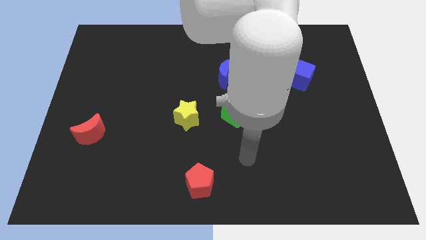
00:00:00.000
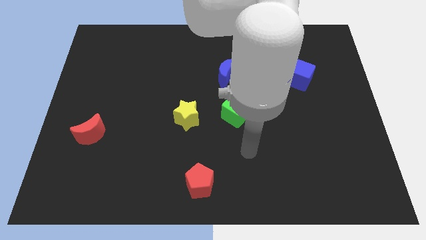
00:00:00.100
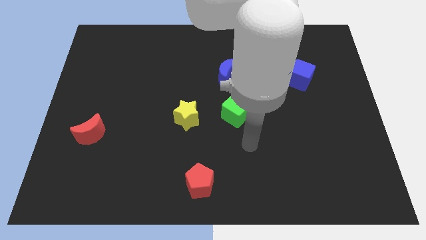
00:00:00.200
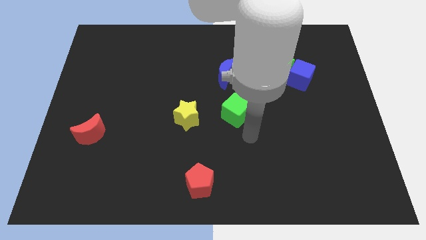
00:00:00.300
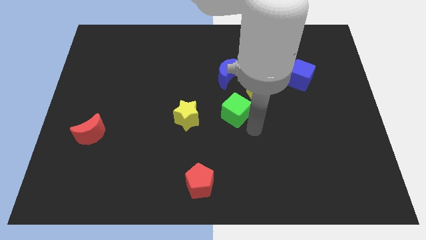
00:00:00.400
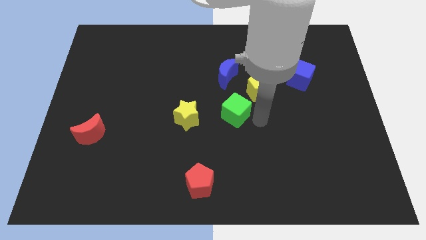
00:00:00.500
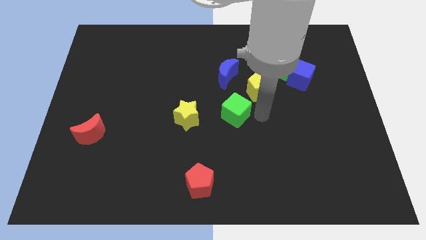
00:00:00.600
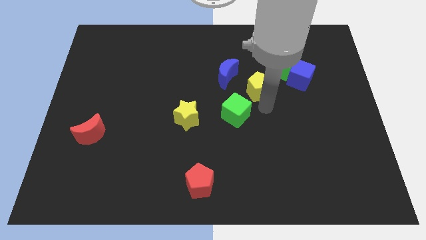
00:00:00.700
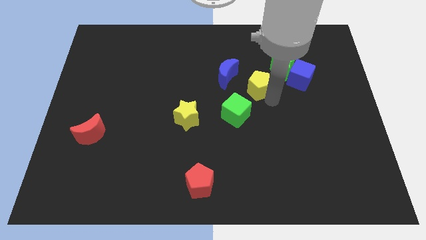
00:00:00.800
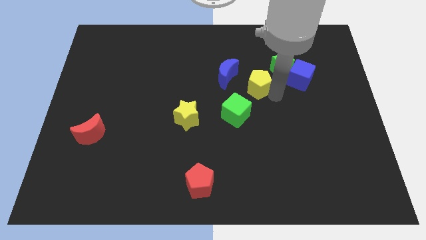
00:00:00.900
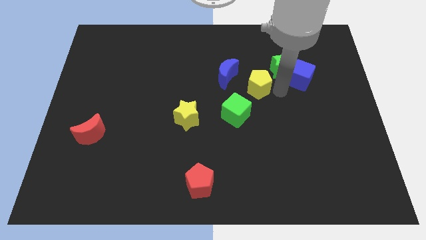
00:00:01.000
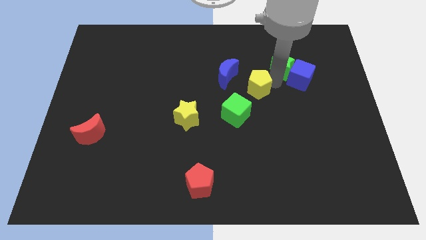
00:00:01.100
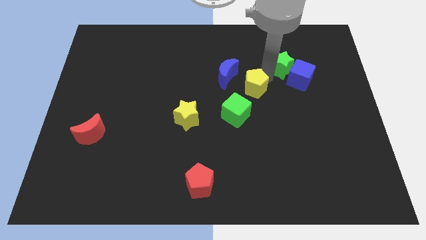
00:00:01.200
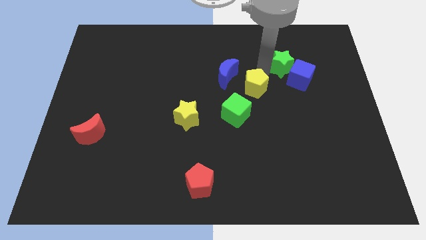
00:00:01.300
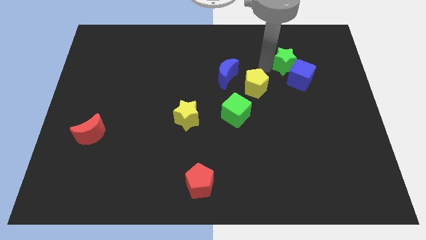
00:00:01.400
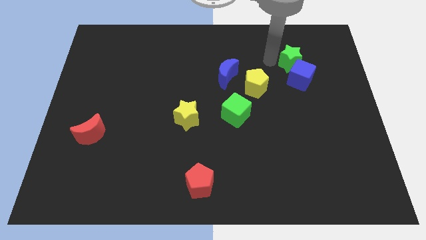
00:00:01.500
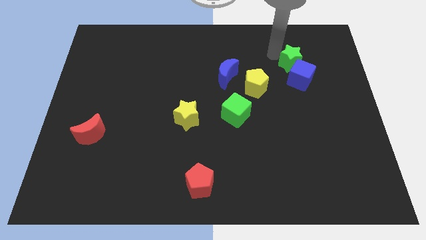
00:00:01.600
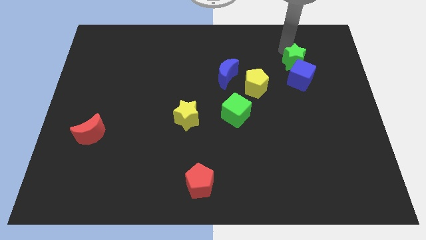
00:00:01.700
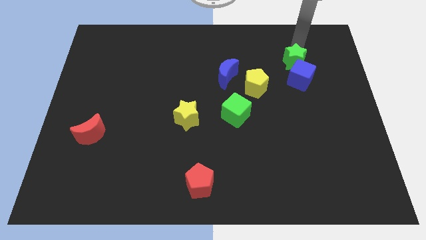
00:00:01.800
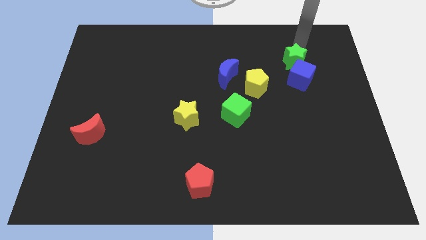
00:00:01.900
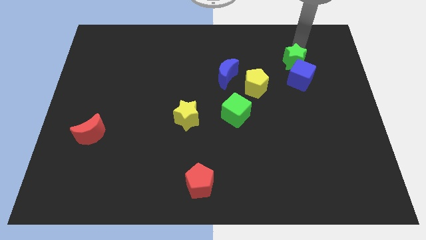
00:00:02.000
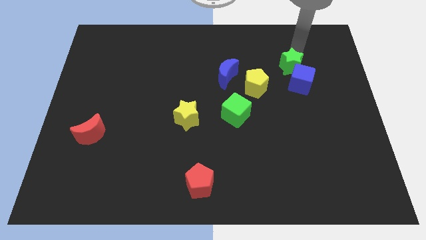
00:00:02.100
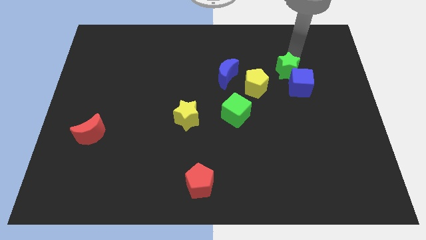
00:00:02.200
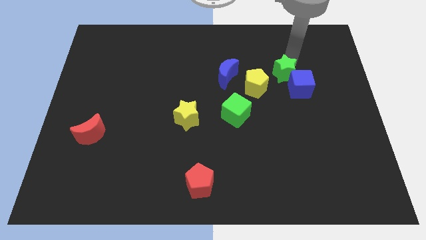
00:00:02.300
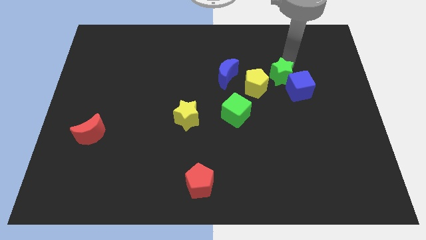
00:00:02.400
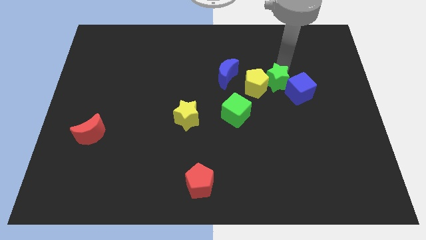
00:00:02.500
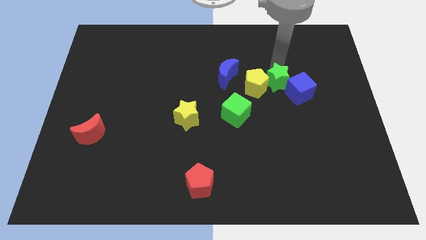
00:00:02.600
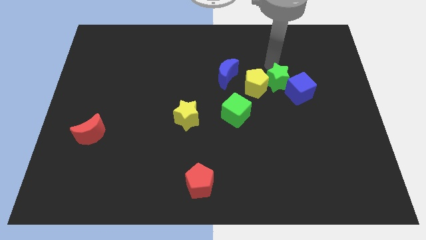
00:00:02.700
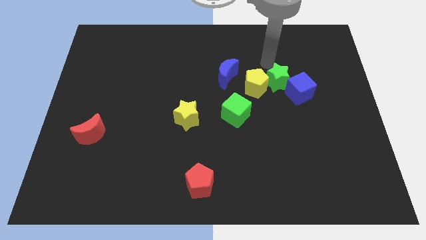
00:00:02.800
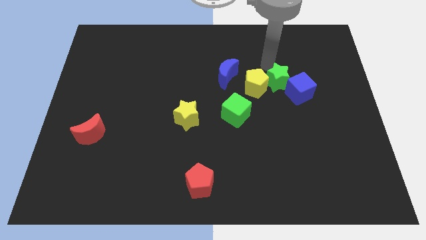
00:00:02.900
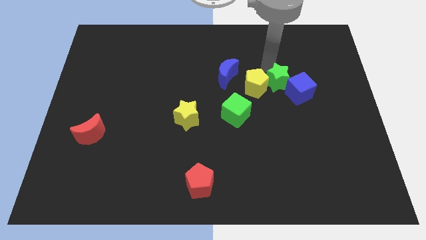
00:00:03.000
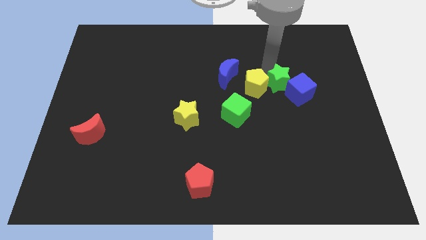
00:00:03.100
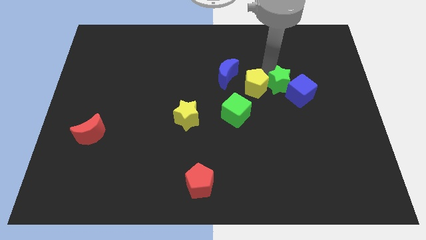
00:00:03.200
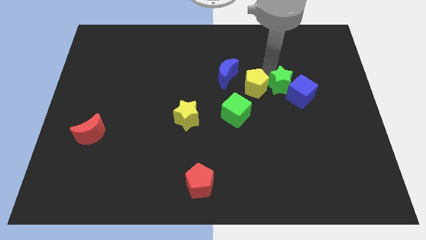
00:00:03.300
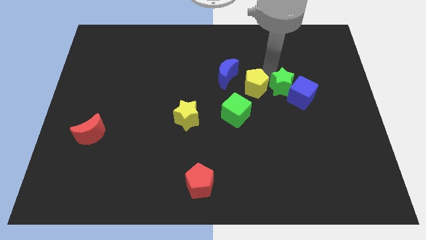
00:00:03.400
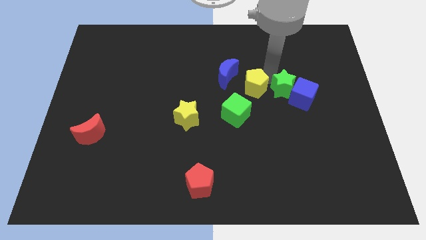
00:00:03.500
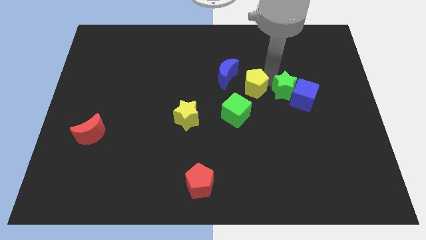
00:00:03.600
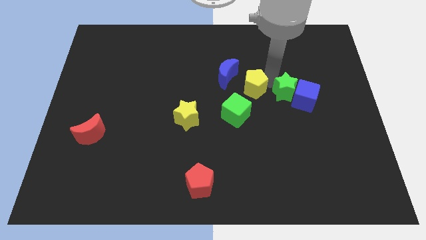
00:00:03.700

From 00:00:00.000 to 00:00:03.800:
slide the green star somewhat down

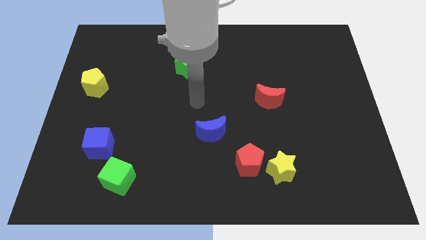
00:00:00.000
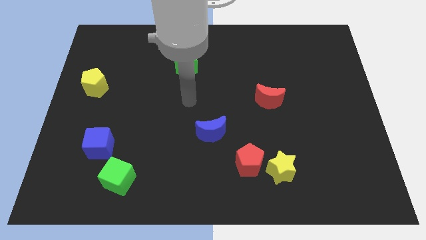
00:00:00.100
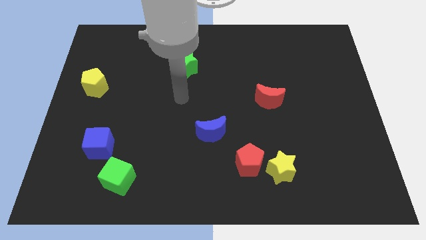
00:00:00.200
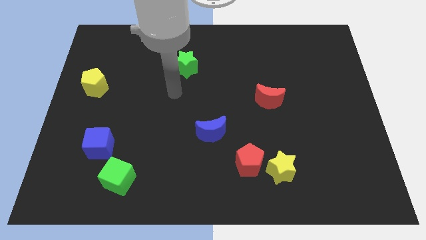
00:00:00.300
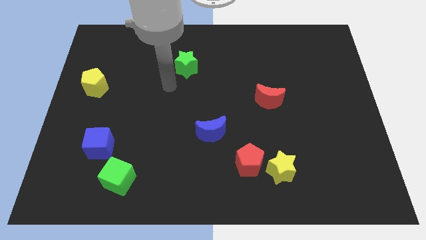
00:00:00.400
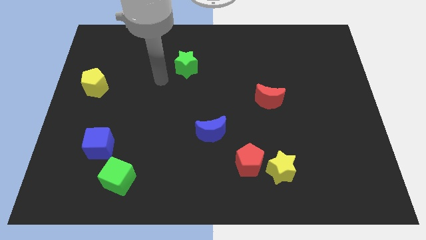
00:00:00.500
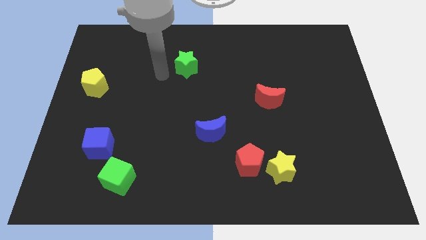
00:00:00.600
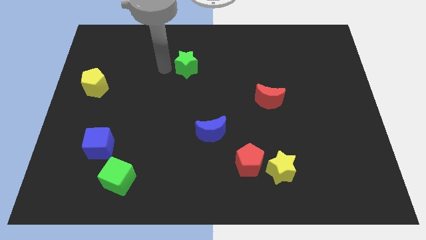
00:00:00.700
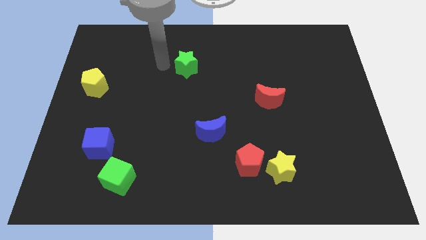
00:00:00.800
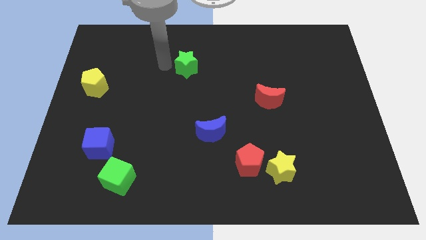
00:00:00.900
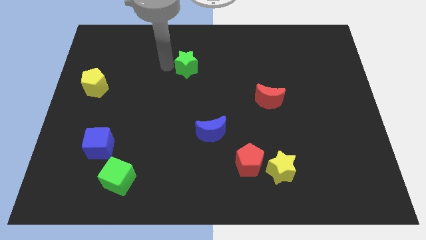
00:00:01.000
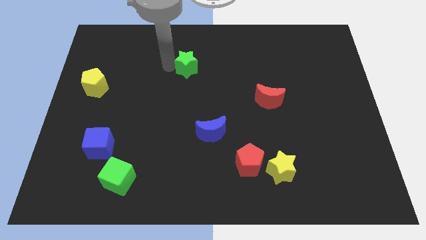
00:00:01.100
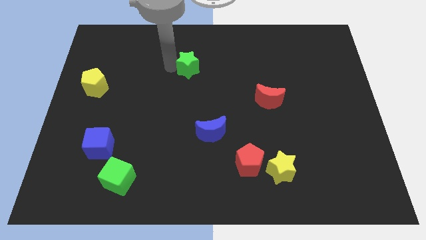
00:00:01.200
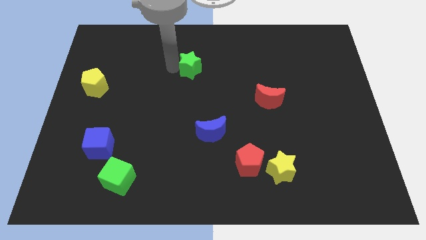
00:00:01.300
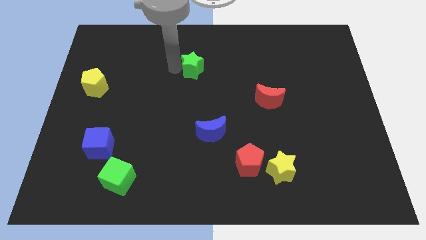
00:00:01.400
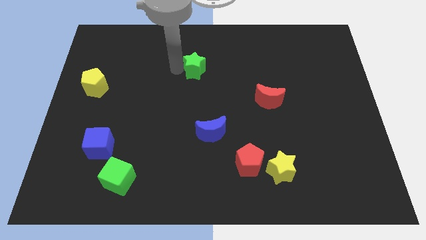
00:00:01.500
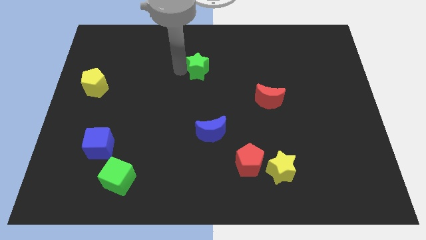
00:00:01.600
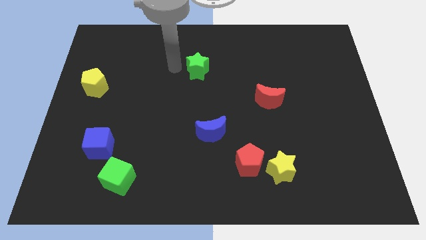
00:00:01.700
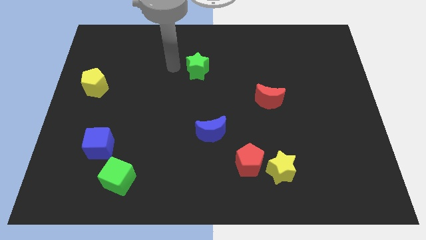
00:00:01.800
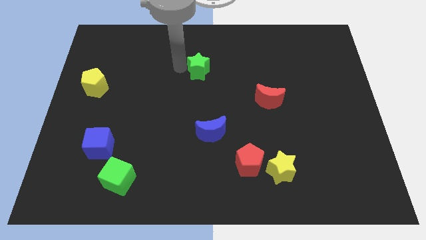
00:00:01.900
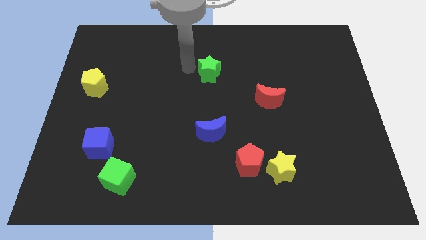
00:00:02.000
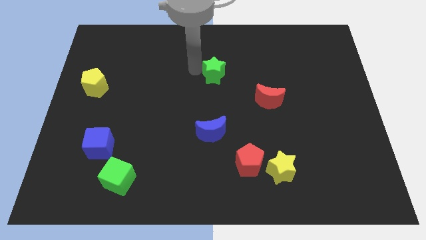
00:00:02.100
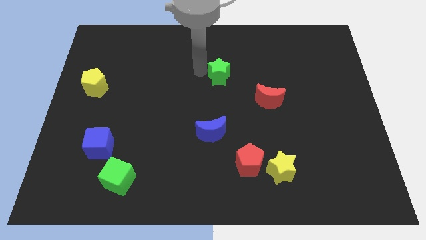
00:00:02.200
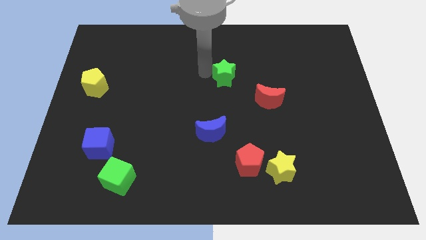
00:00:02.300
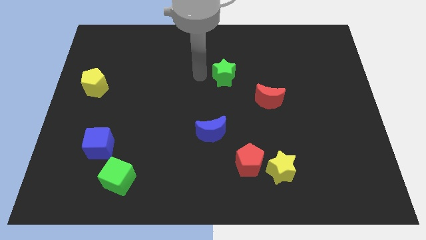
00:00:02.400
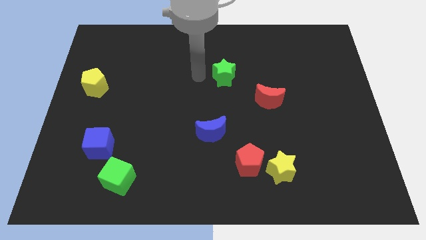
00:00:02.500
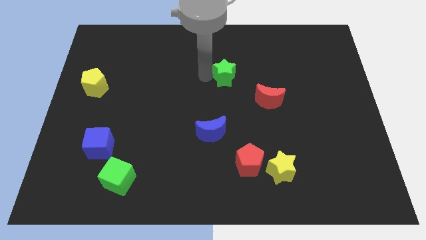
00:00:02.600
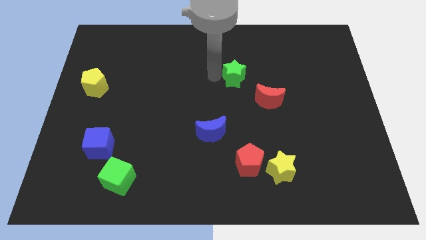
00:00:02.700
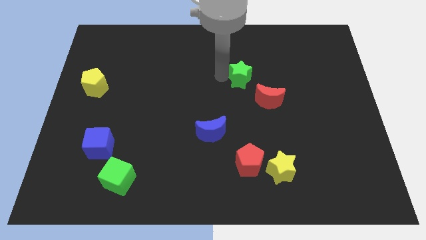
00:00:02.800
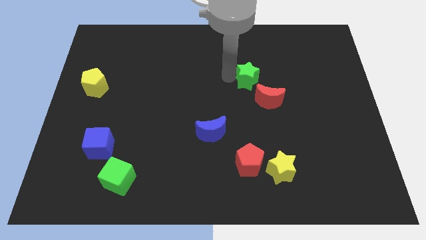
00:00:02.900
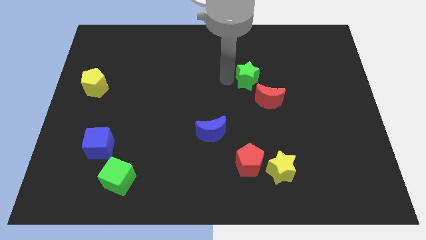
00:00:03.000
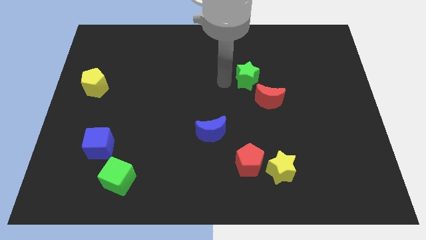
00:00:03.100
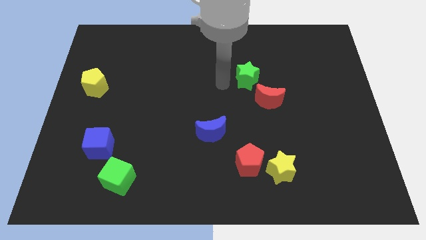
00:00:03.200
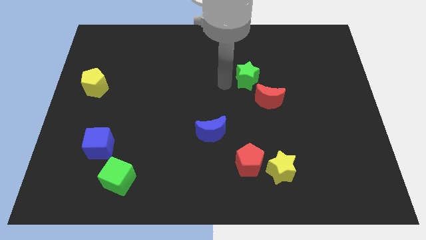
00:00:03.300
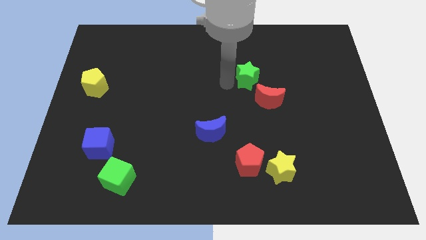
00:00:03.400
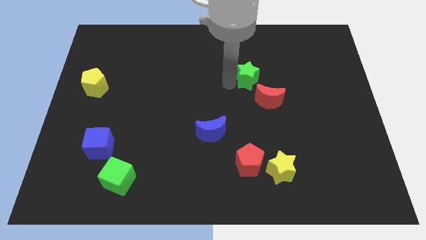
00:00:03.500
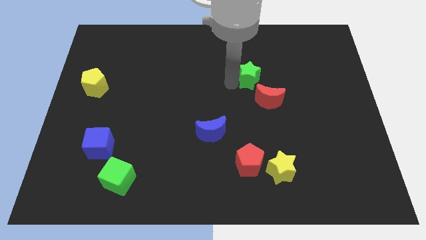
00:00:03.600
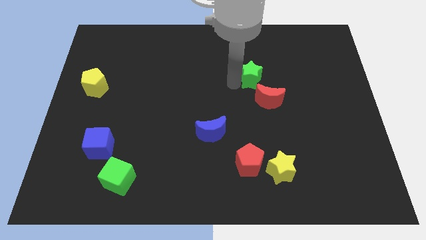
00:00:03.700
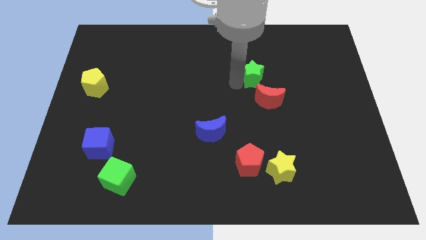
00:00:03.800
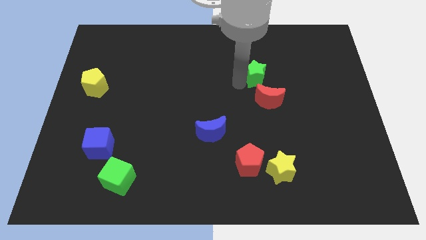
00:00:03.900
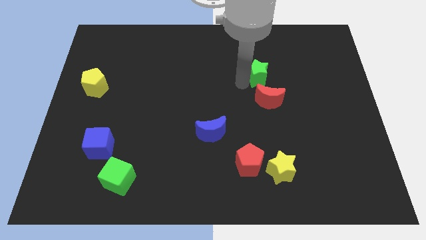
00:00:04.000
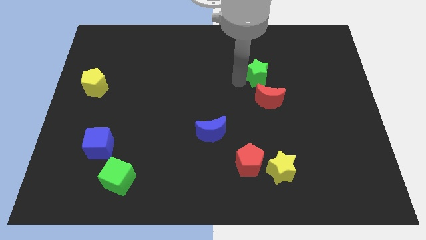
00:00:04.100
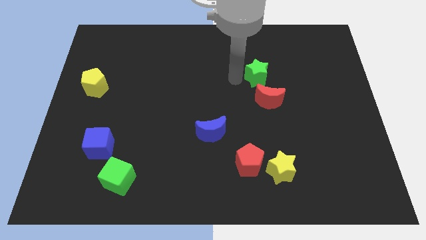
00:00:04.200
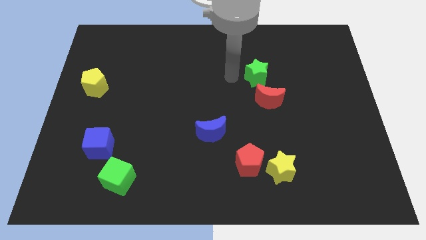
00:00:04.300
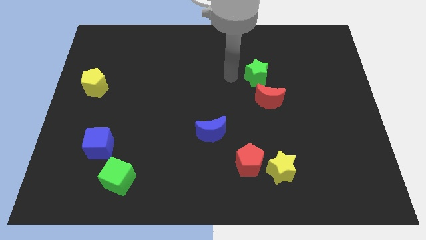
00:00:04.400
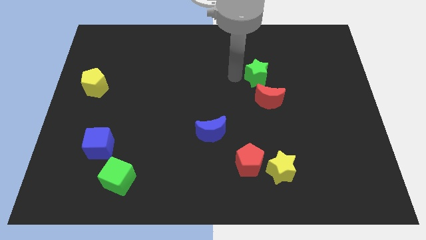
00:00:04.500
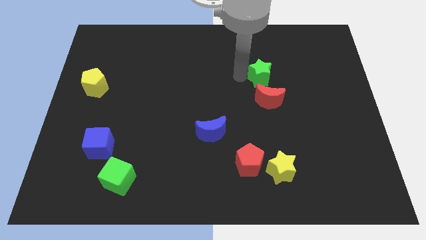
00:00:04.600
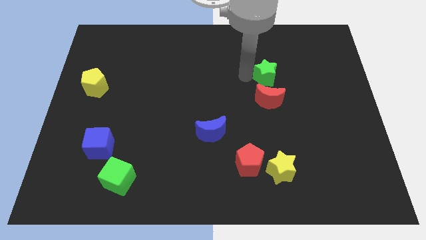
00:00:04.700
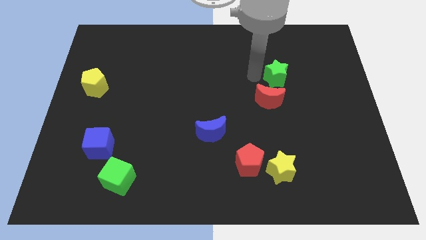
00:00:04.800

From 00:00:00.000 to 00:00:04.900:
slide the green star to the right
